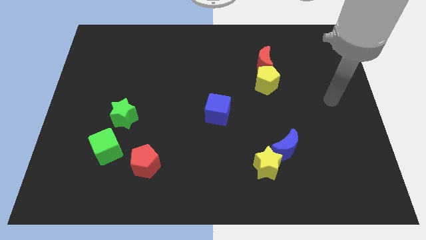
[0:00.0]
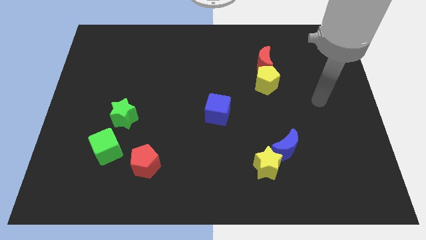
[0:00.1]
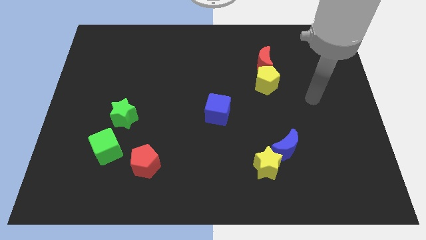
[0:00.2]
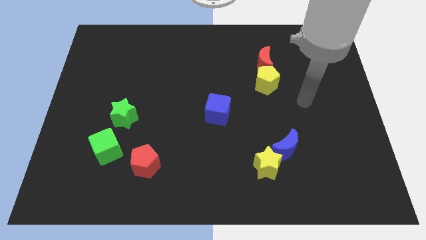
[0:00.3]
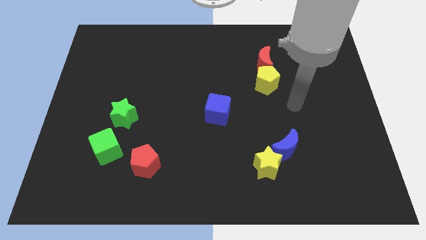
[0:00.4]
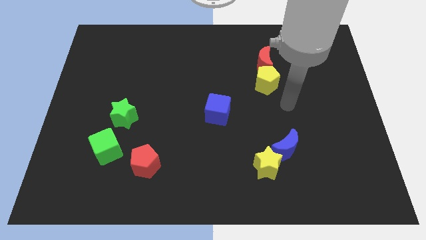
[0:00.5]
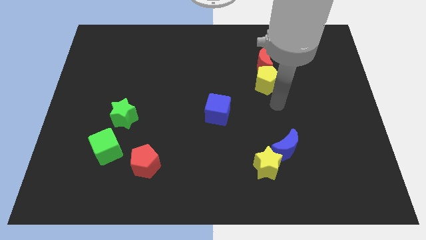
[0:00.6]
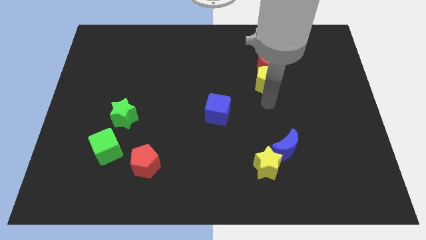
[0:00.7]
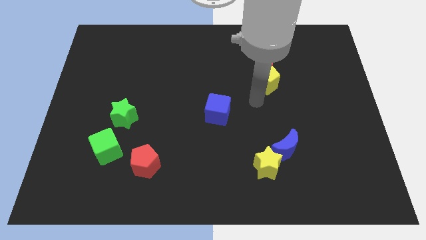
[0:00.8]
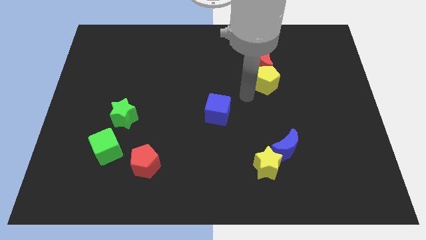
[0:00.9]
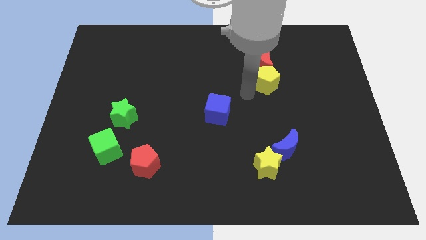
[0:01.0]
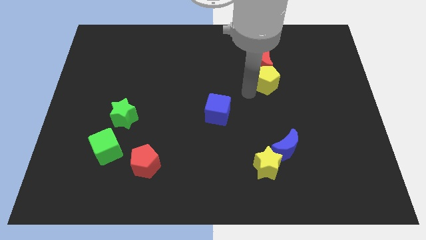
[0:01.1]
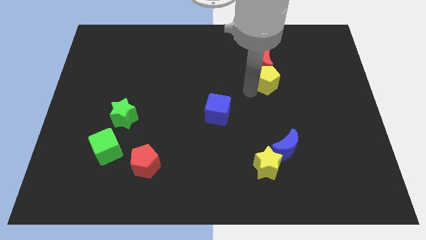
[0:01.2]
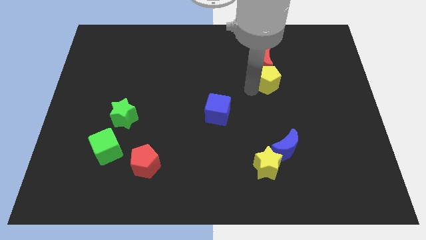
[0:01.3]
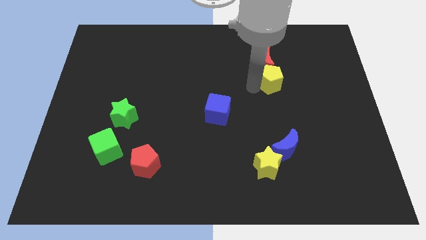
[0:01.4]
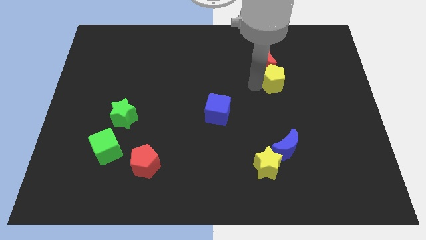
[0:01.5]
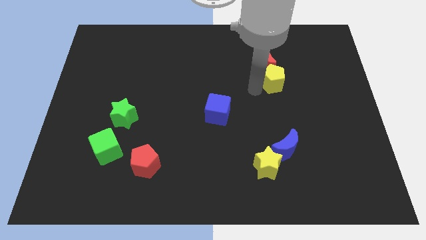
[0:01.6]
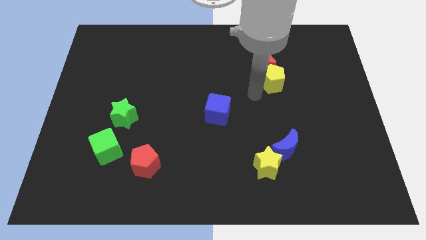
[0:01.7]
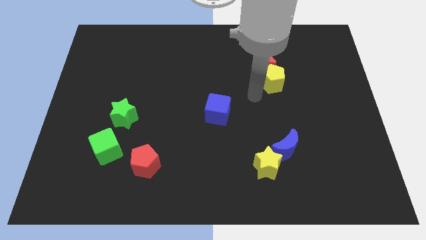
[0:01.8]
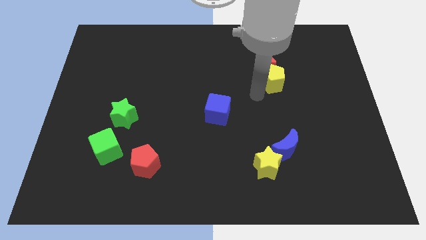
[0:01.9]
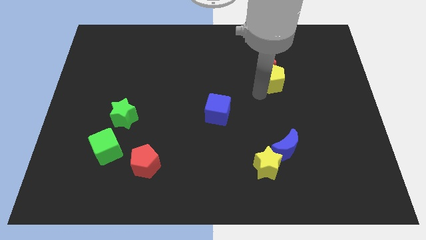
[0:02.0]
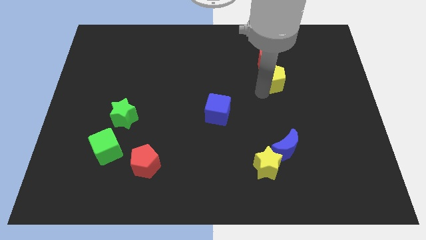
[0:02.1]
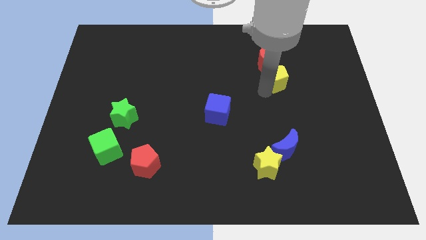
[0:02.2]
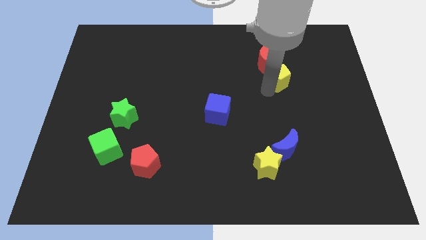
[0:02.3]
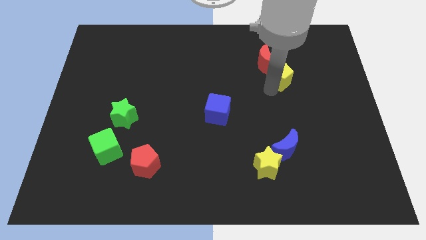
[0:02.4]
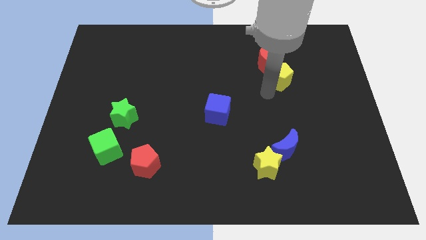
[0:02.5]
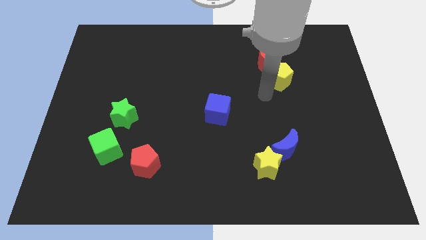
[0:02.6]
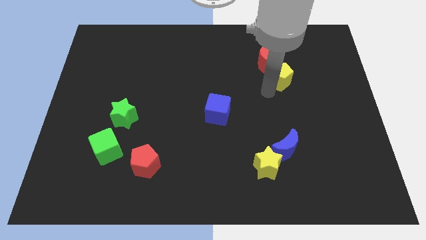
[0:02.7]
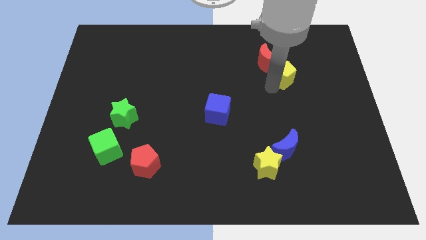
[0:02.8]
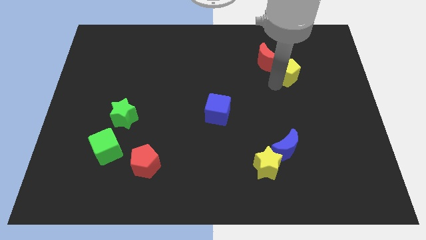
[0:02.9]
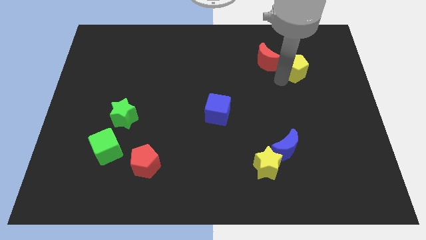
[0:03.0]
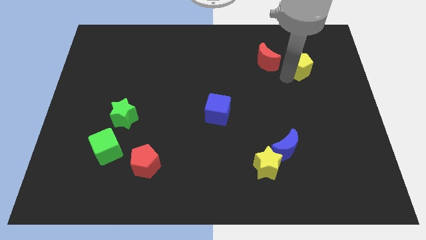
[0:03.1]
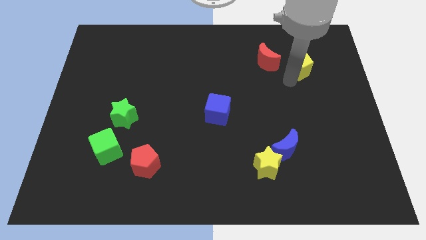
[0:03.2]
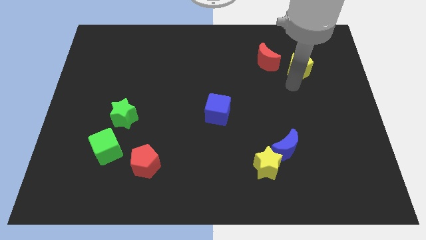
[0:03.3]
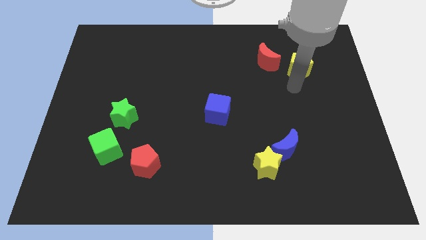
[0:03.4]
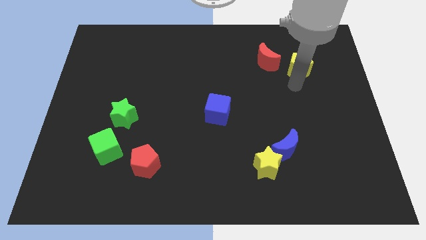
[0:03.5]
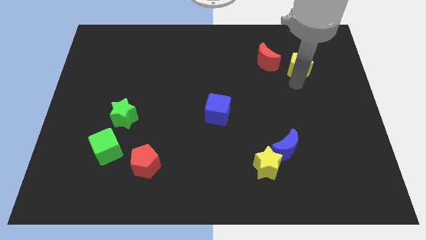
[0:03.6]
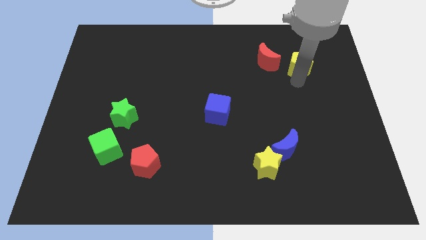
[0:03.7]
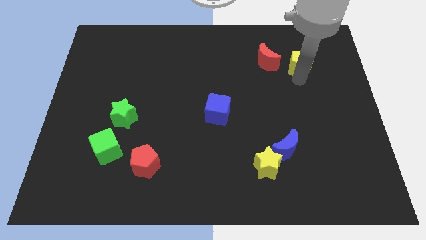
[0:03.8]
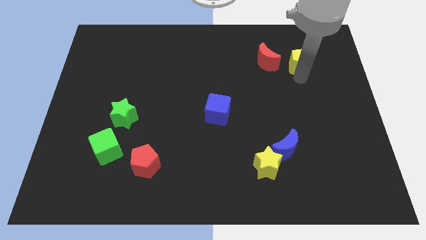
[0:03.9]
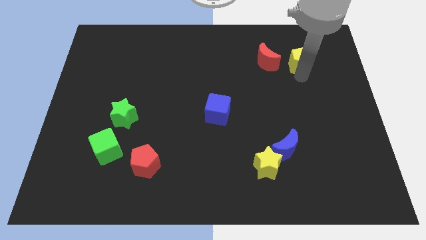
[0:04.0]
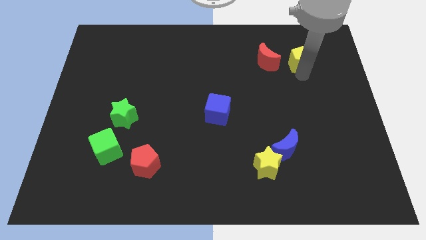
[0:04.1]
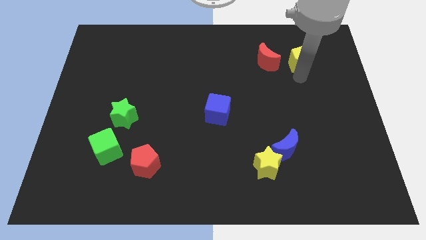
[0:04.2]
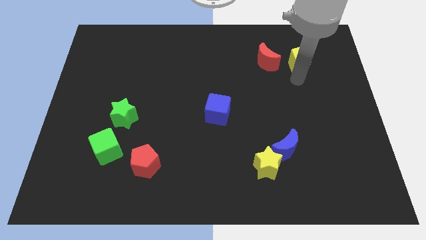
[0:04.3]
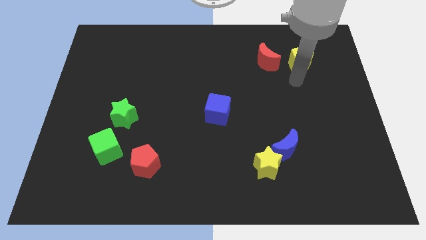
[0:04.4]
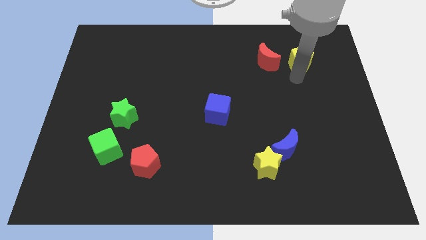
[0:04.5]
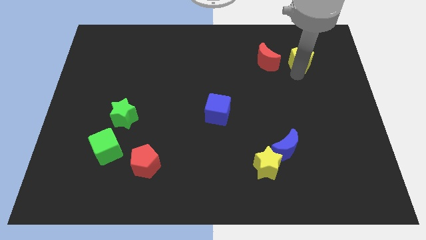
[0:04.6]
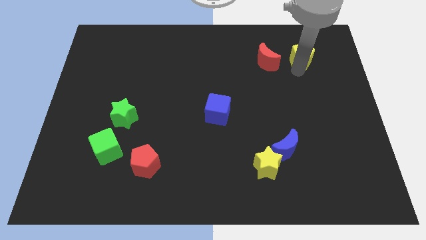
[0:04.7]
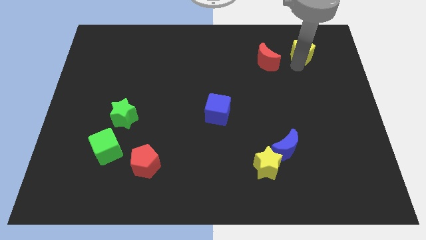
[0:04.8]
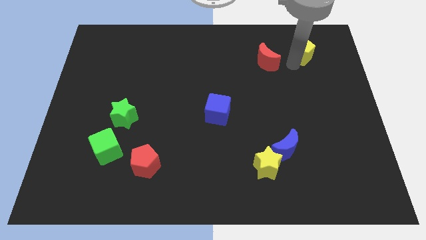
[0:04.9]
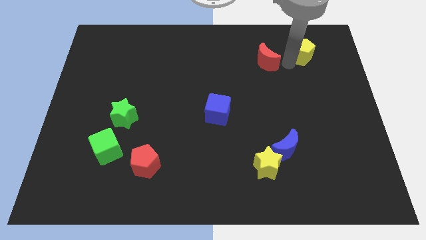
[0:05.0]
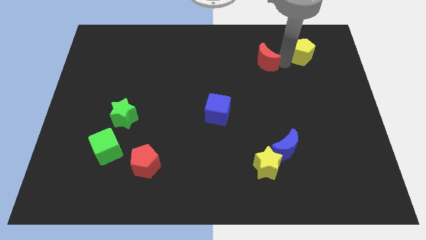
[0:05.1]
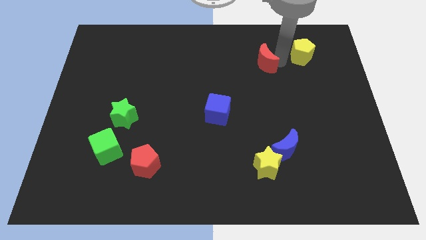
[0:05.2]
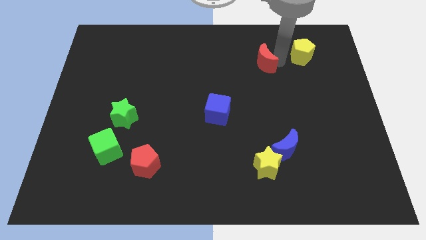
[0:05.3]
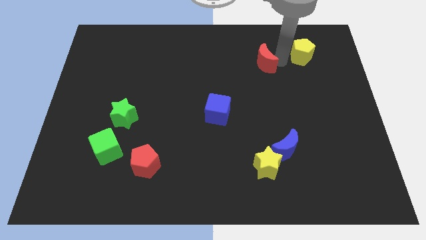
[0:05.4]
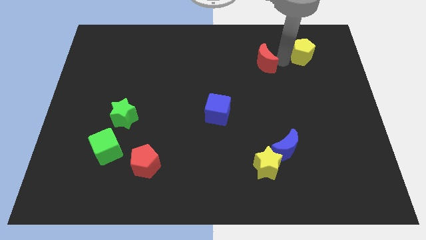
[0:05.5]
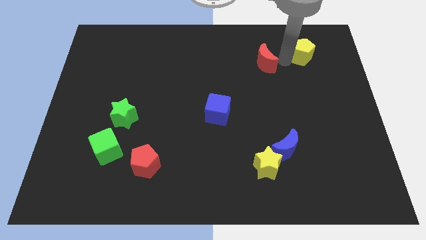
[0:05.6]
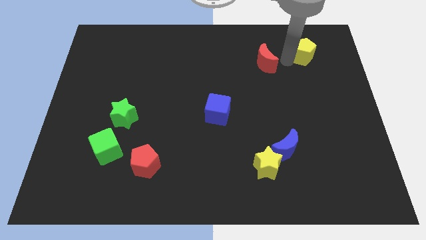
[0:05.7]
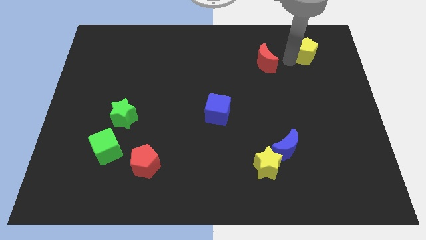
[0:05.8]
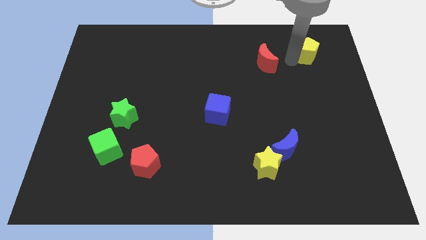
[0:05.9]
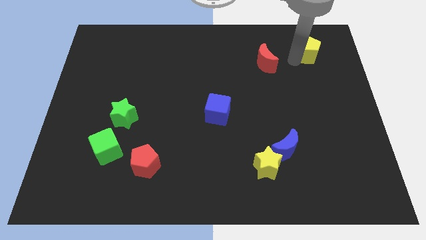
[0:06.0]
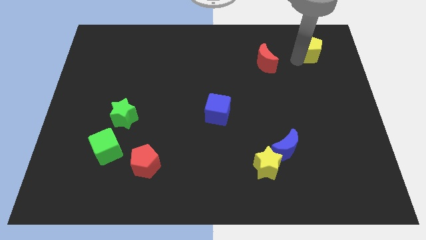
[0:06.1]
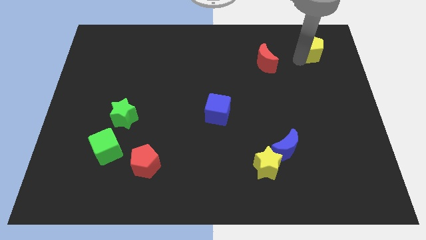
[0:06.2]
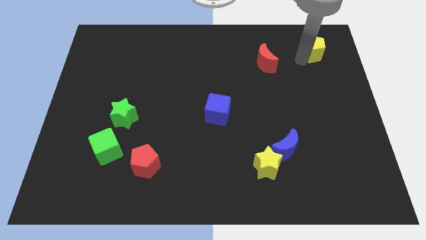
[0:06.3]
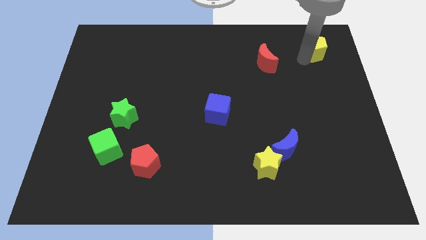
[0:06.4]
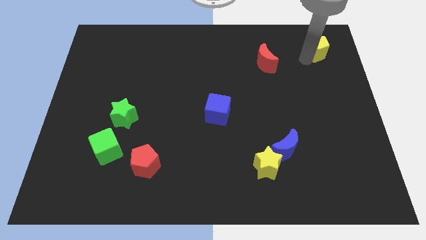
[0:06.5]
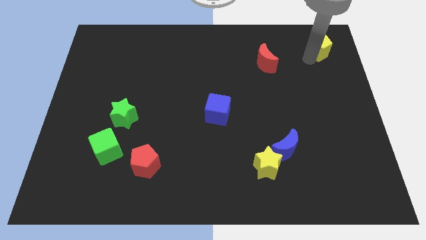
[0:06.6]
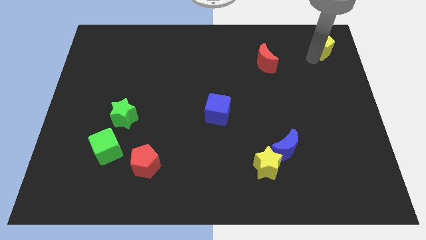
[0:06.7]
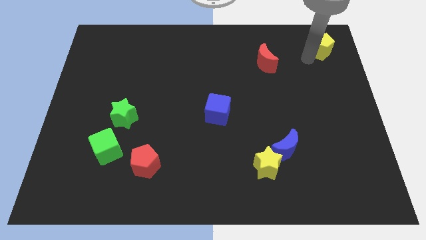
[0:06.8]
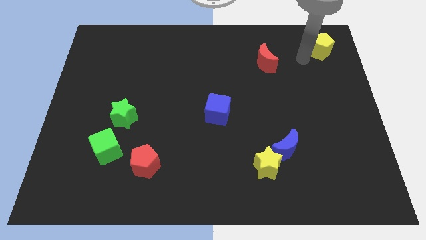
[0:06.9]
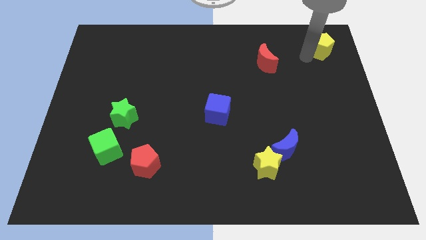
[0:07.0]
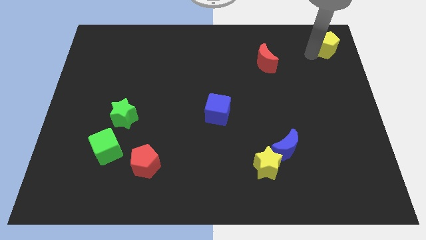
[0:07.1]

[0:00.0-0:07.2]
slide the yellow pentagon to the top right

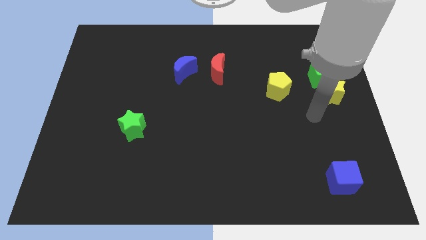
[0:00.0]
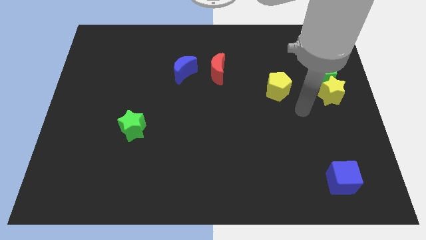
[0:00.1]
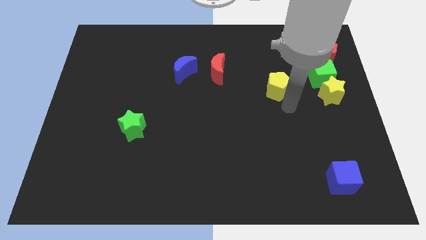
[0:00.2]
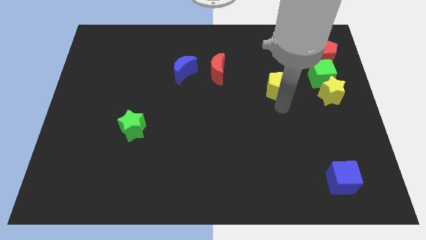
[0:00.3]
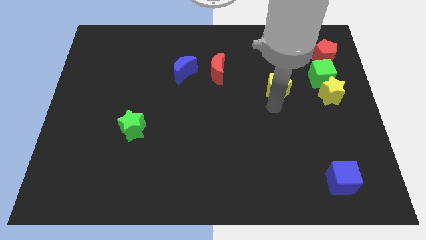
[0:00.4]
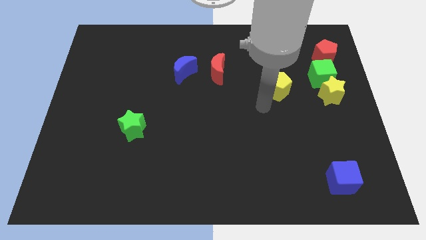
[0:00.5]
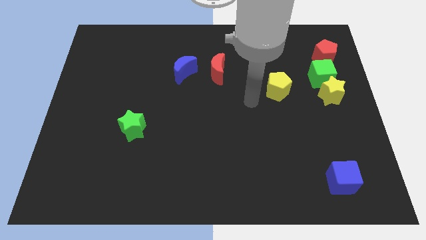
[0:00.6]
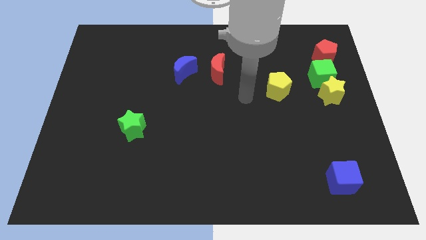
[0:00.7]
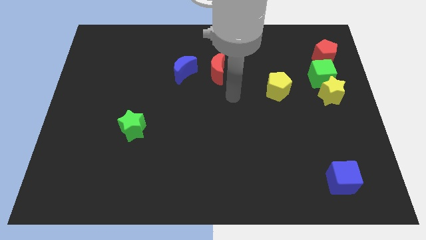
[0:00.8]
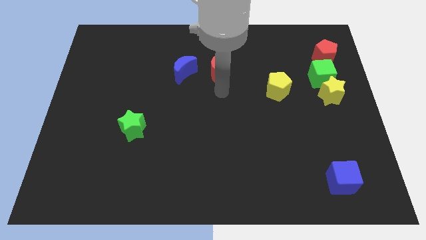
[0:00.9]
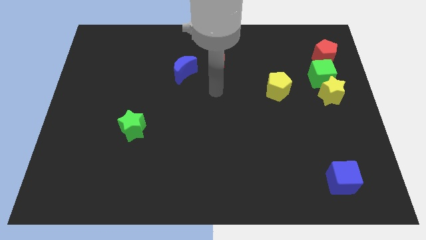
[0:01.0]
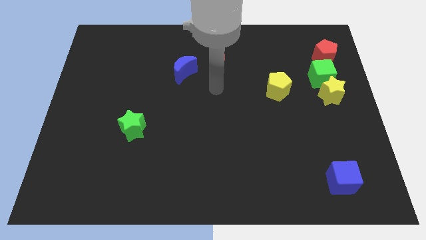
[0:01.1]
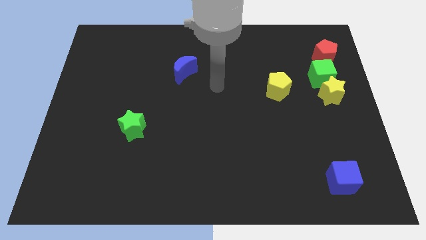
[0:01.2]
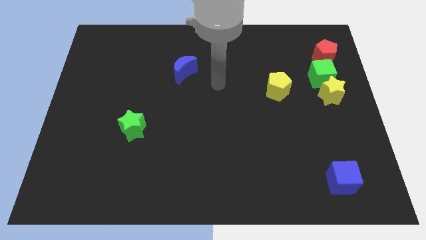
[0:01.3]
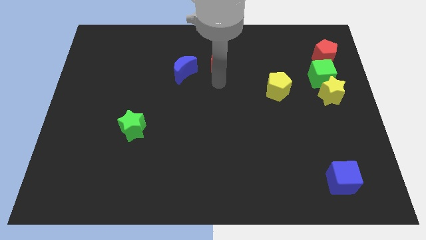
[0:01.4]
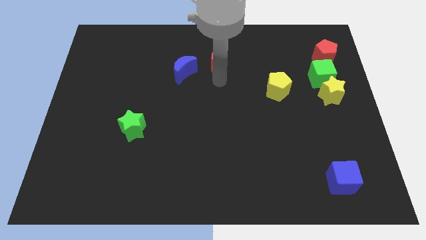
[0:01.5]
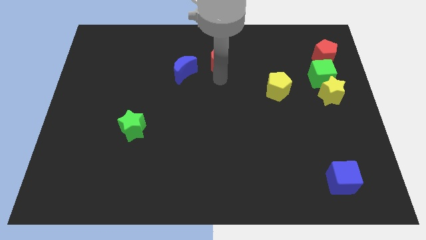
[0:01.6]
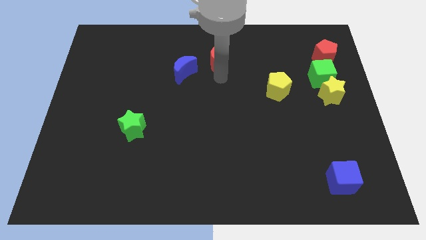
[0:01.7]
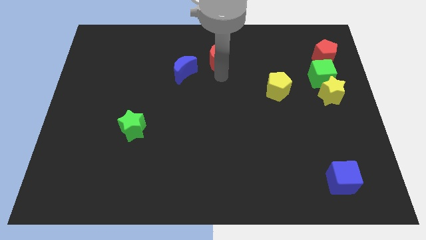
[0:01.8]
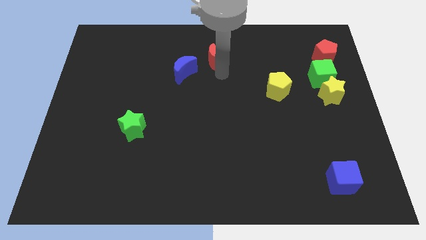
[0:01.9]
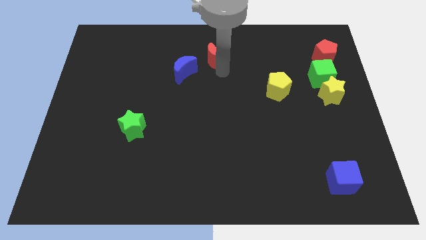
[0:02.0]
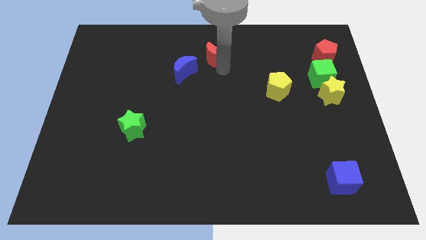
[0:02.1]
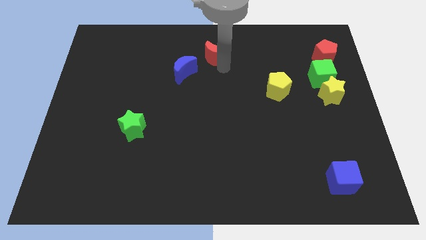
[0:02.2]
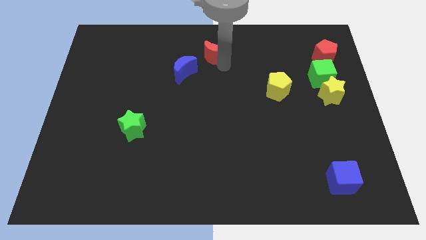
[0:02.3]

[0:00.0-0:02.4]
push the red moon to the towards your base
